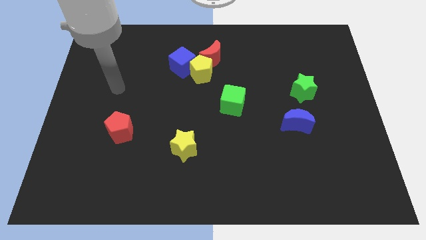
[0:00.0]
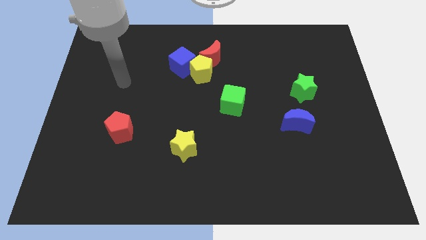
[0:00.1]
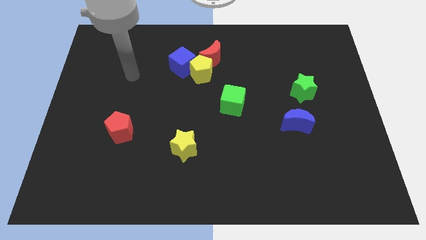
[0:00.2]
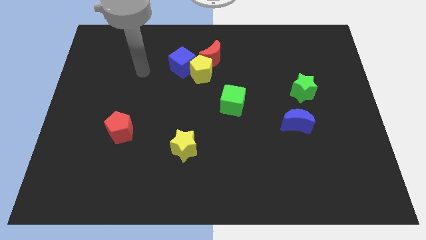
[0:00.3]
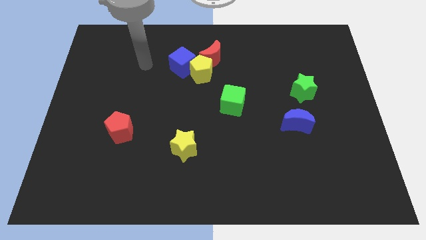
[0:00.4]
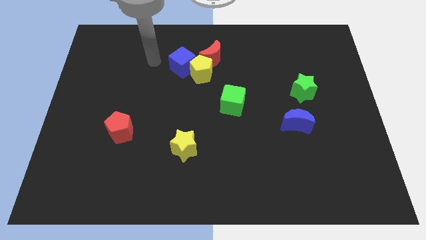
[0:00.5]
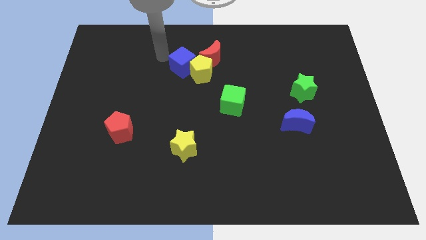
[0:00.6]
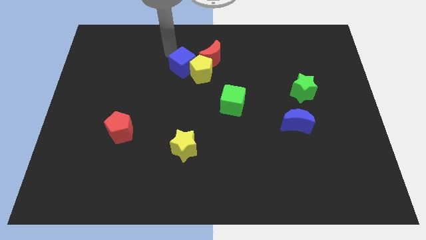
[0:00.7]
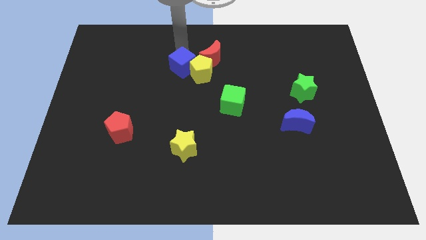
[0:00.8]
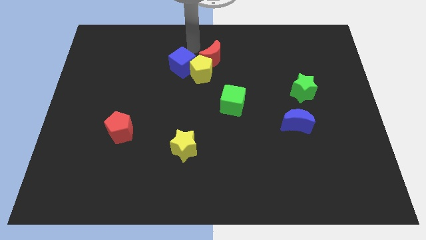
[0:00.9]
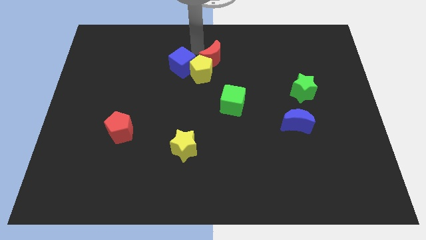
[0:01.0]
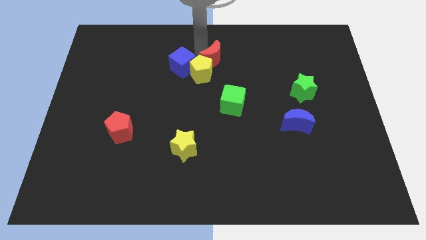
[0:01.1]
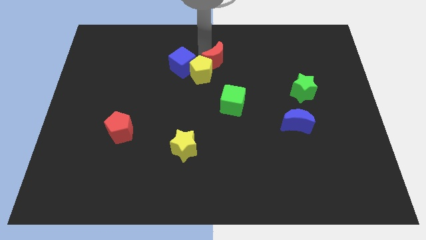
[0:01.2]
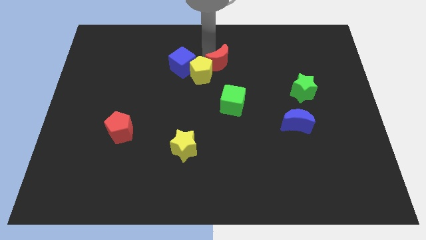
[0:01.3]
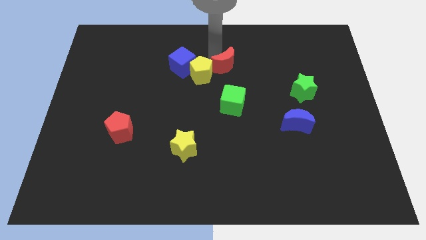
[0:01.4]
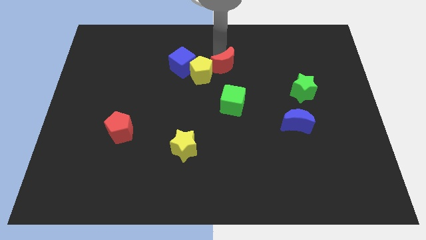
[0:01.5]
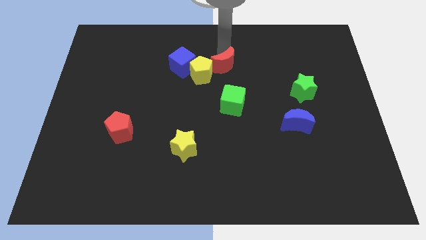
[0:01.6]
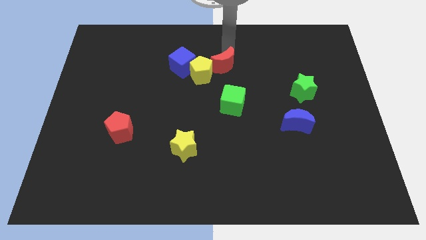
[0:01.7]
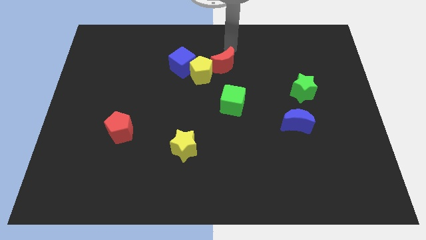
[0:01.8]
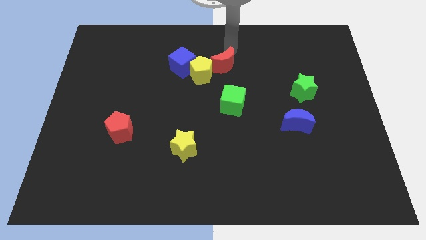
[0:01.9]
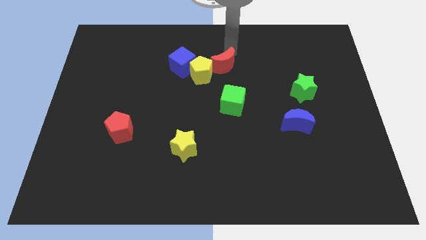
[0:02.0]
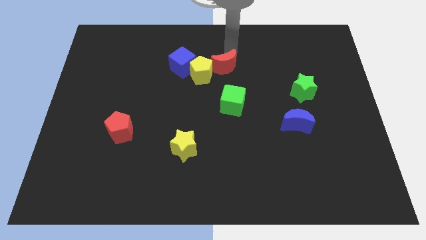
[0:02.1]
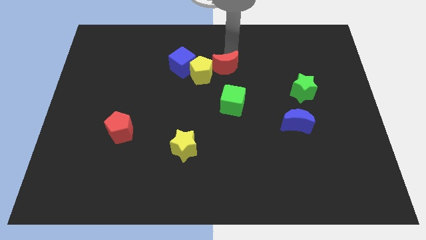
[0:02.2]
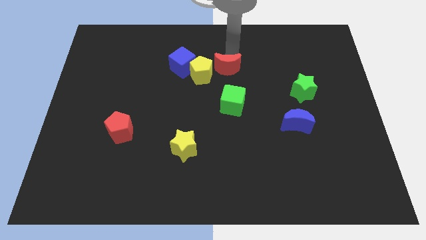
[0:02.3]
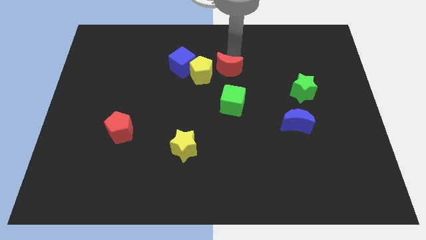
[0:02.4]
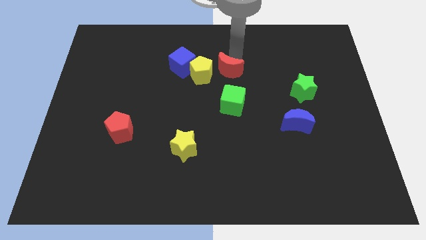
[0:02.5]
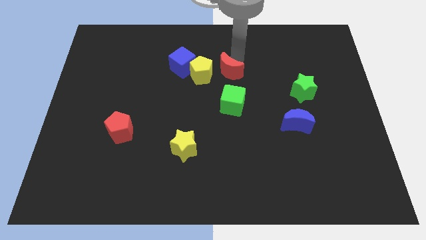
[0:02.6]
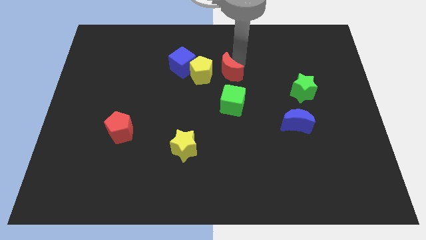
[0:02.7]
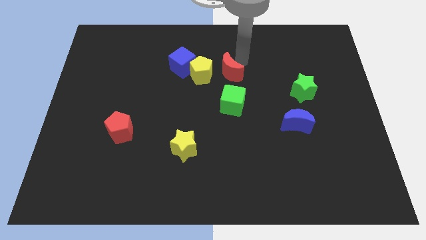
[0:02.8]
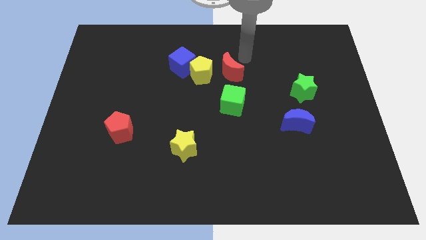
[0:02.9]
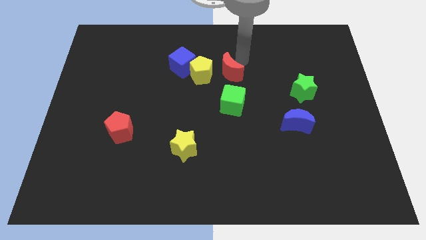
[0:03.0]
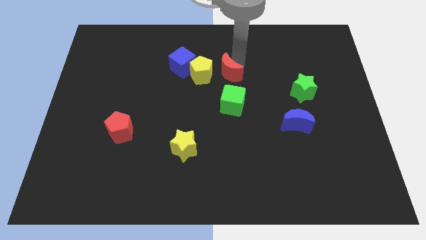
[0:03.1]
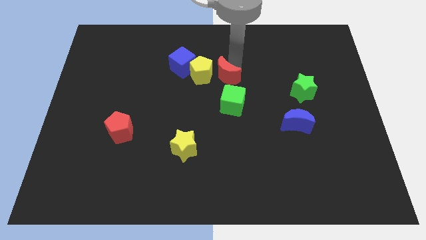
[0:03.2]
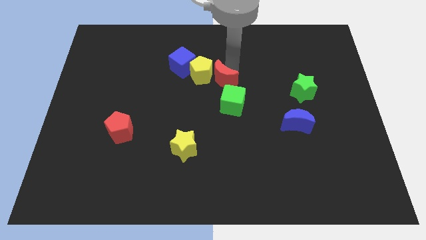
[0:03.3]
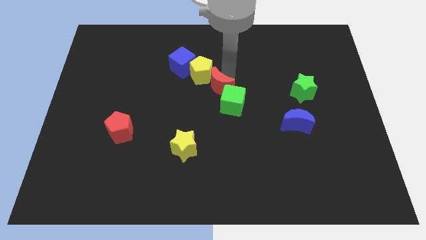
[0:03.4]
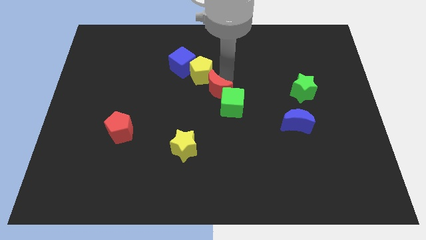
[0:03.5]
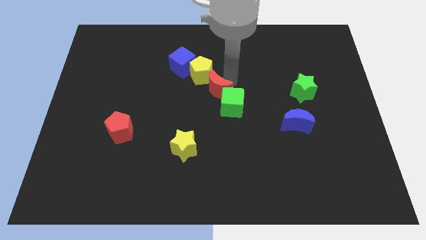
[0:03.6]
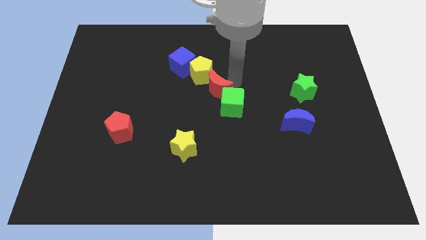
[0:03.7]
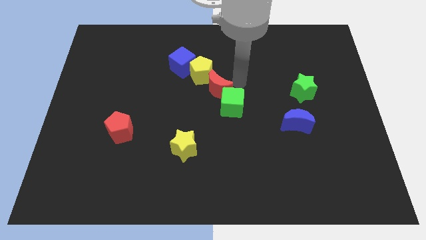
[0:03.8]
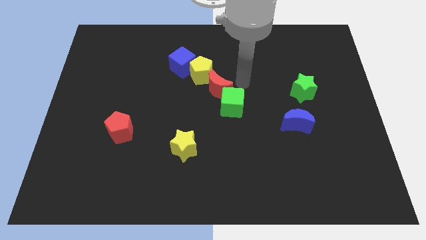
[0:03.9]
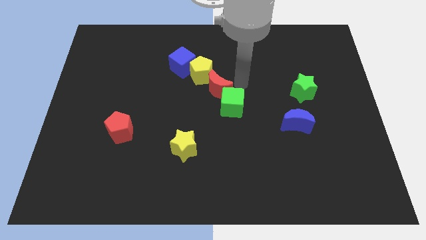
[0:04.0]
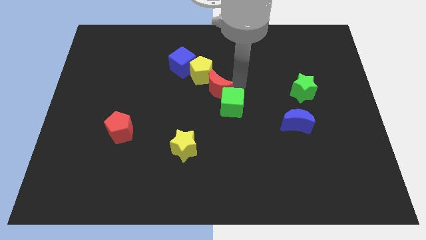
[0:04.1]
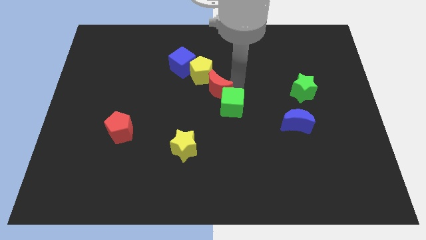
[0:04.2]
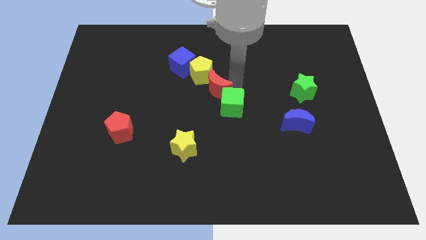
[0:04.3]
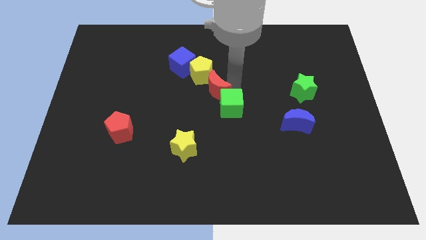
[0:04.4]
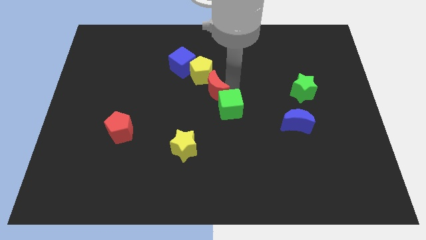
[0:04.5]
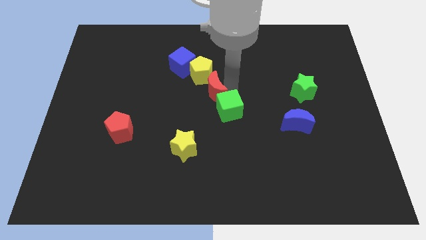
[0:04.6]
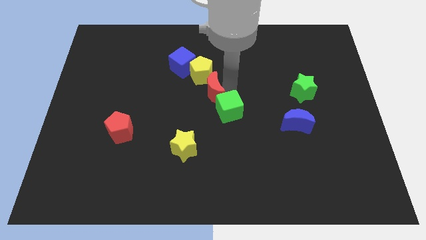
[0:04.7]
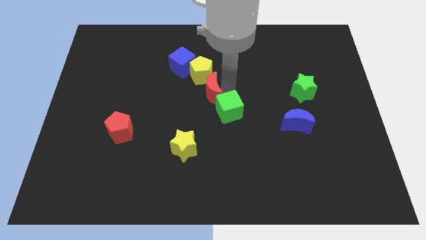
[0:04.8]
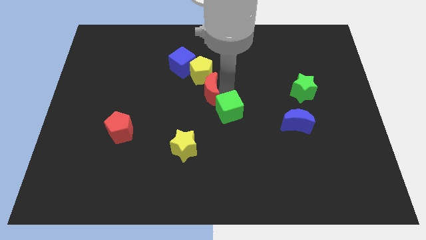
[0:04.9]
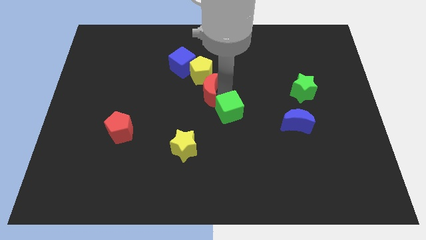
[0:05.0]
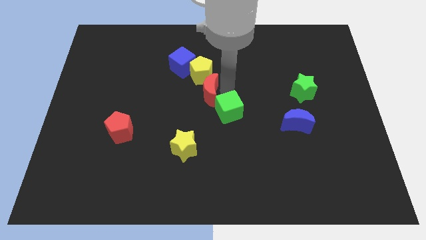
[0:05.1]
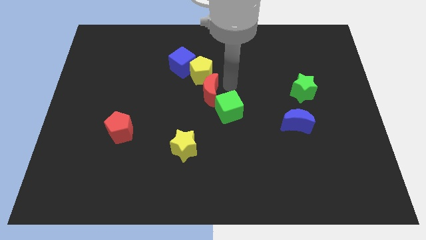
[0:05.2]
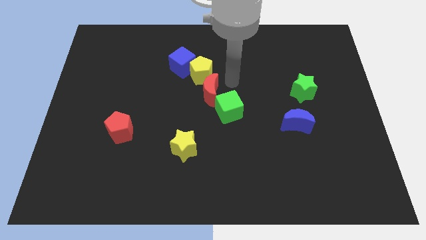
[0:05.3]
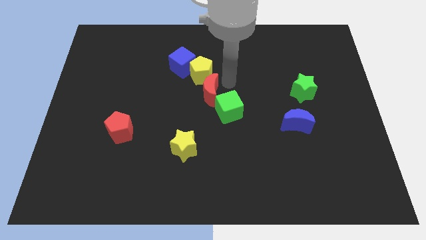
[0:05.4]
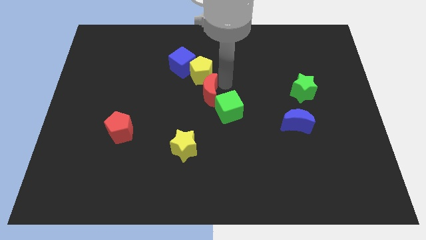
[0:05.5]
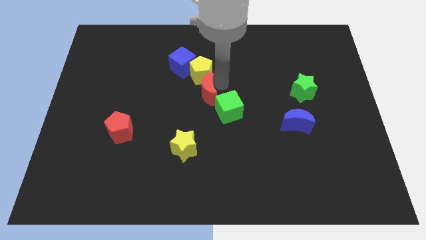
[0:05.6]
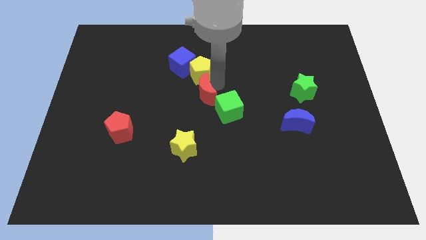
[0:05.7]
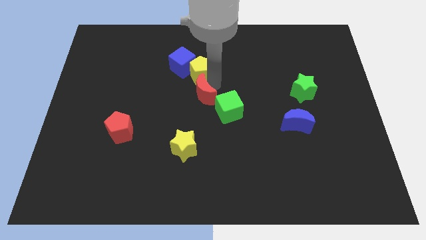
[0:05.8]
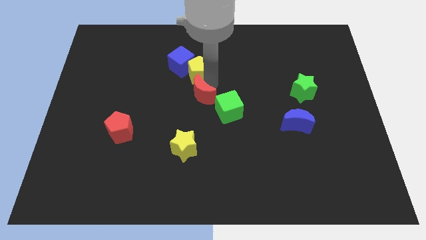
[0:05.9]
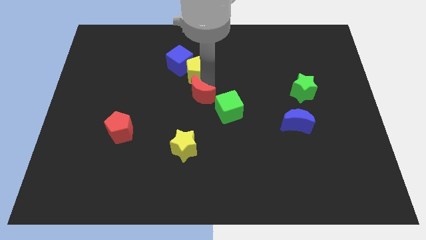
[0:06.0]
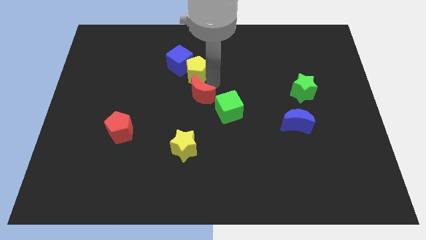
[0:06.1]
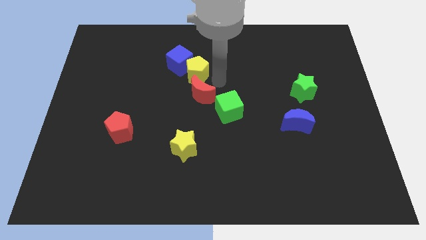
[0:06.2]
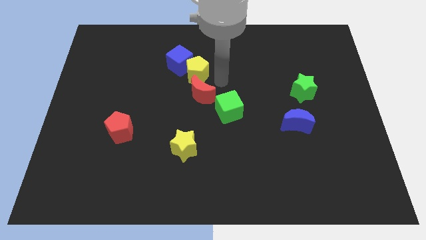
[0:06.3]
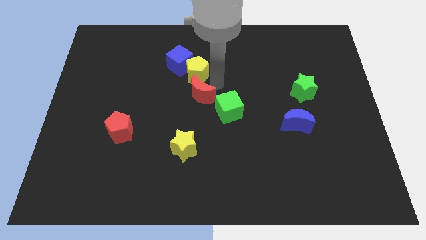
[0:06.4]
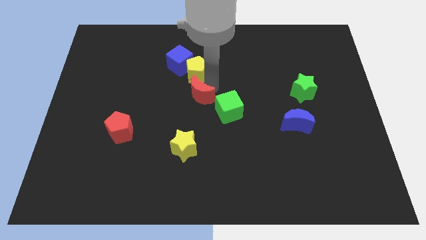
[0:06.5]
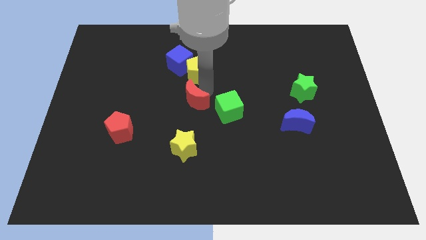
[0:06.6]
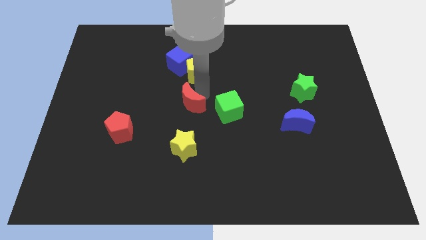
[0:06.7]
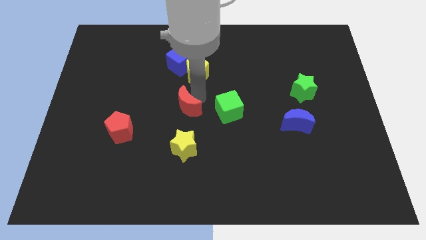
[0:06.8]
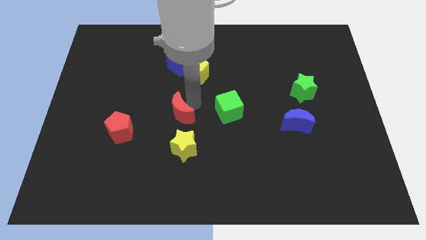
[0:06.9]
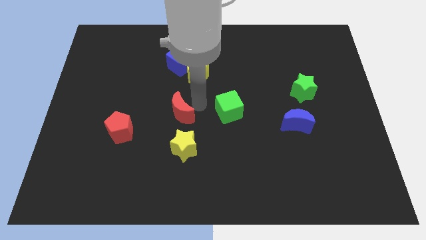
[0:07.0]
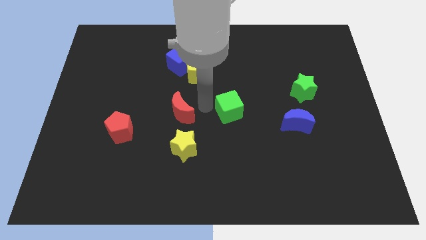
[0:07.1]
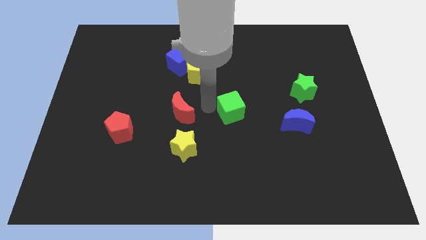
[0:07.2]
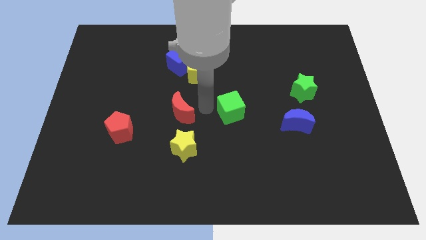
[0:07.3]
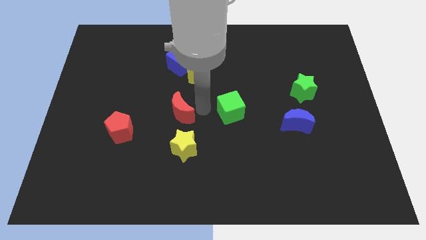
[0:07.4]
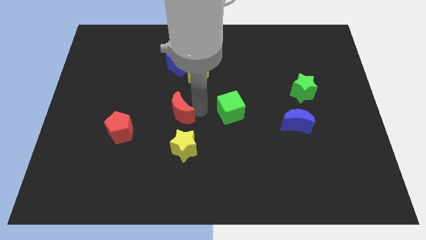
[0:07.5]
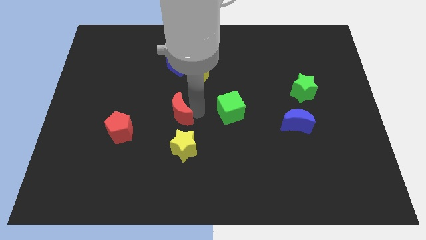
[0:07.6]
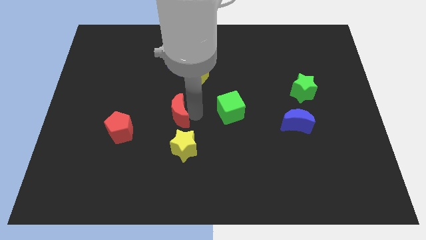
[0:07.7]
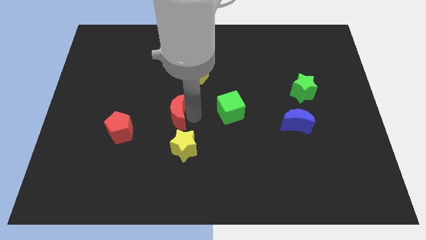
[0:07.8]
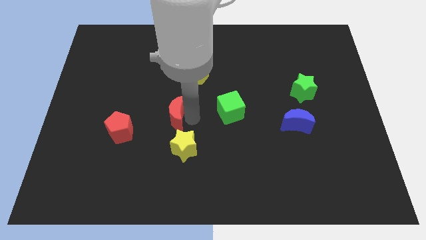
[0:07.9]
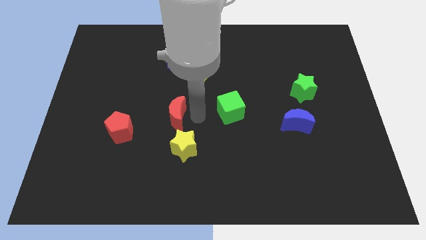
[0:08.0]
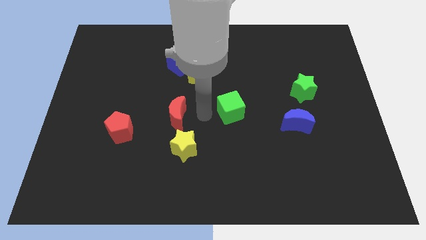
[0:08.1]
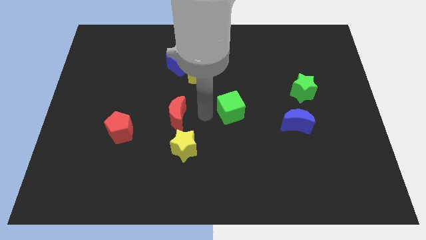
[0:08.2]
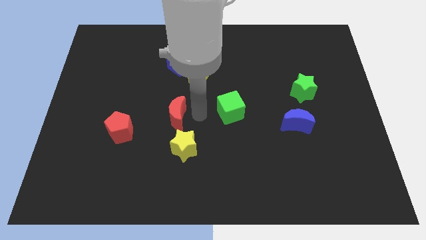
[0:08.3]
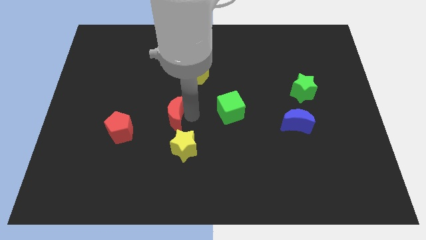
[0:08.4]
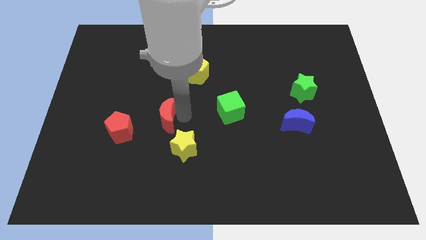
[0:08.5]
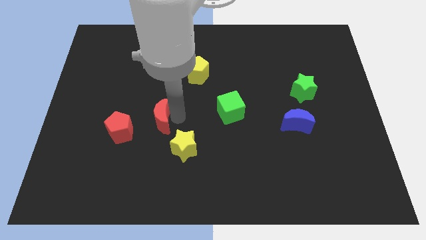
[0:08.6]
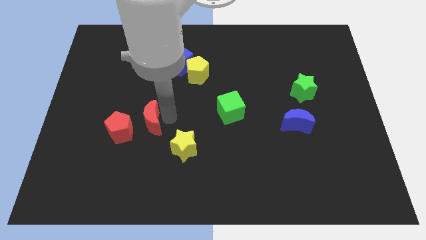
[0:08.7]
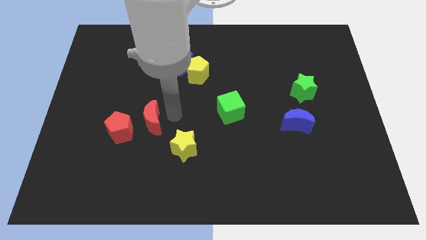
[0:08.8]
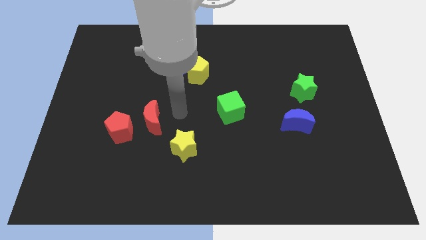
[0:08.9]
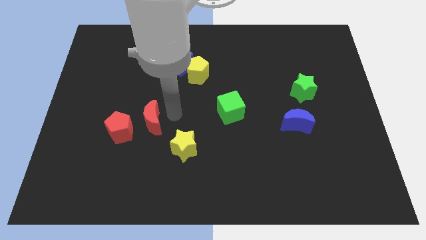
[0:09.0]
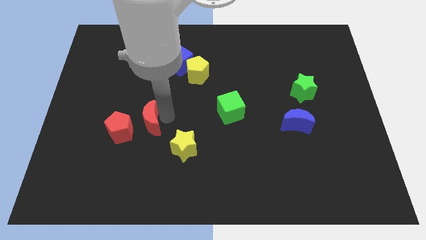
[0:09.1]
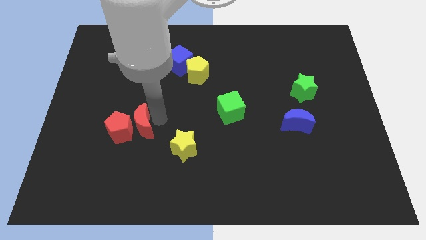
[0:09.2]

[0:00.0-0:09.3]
put the red moon to the red pentagon
